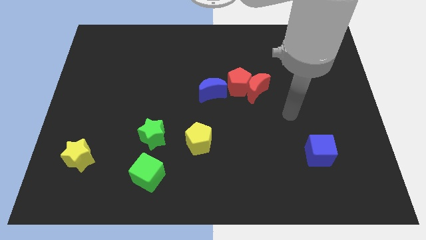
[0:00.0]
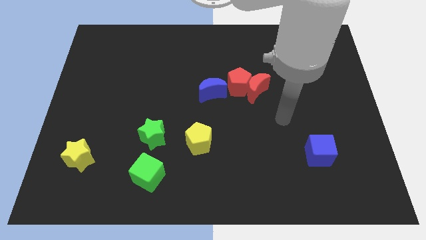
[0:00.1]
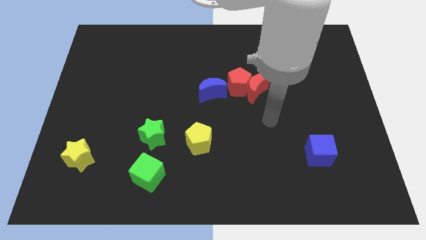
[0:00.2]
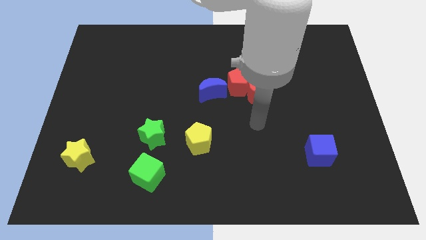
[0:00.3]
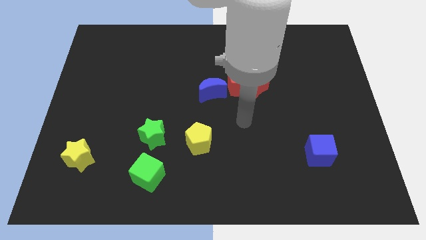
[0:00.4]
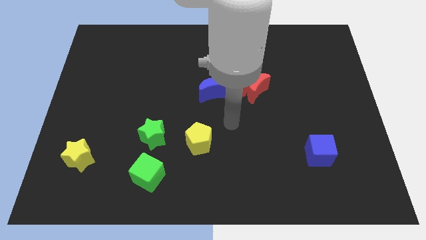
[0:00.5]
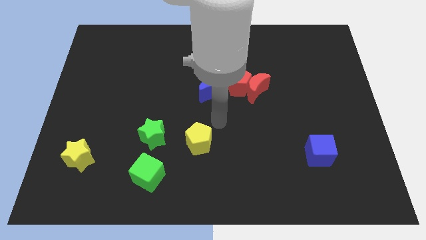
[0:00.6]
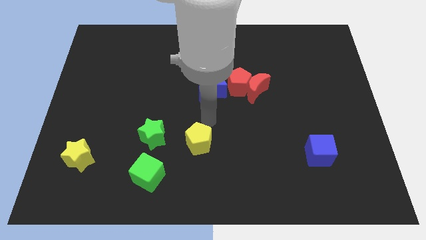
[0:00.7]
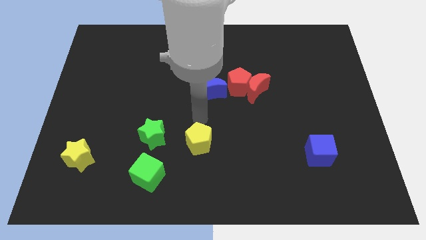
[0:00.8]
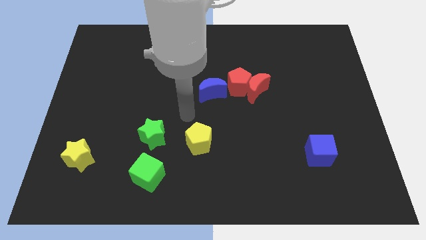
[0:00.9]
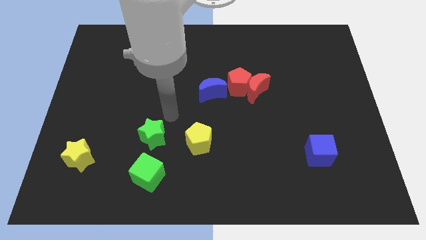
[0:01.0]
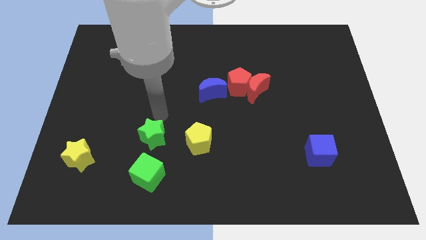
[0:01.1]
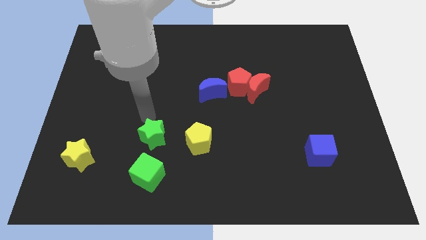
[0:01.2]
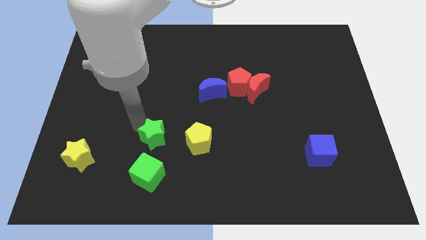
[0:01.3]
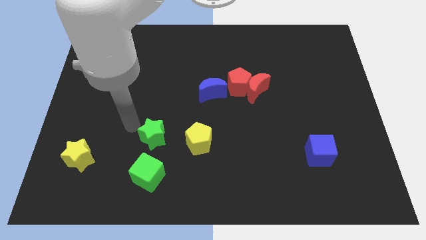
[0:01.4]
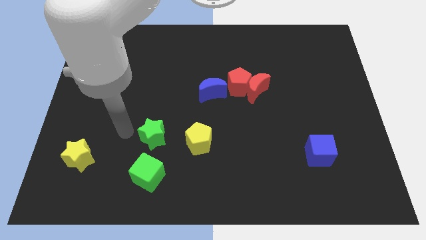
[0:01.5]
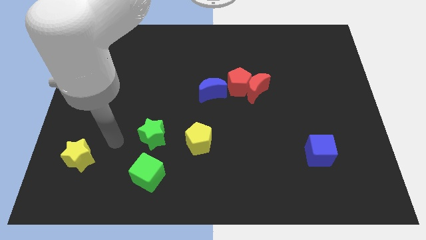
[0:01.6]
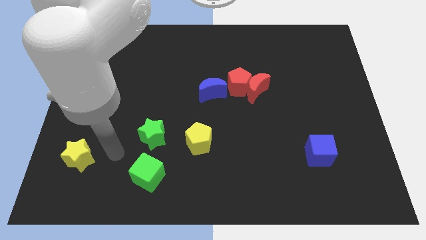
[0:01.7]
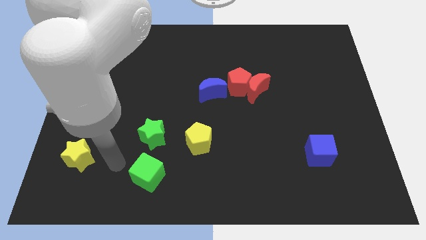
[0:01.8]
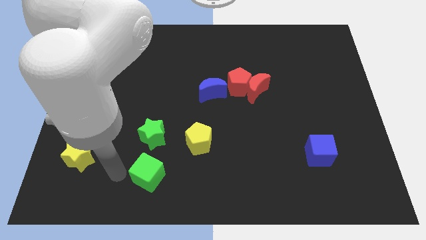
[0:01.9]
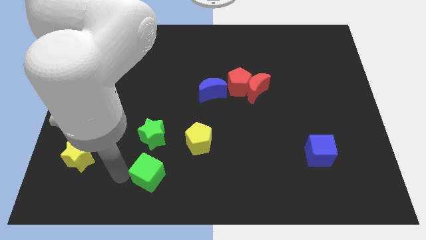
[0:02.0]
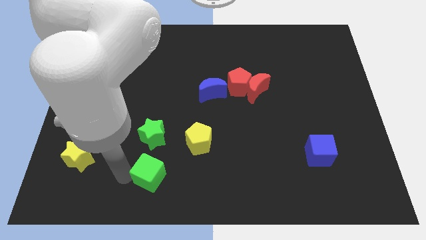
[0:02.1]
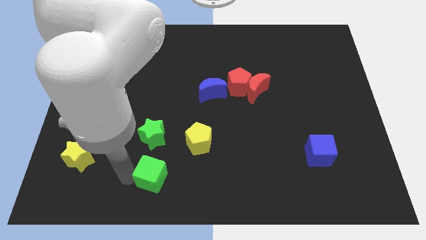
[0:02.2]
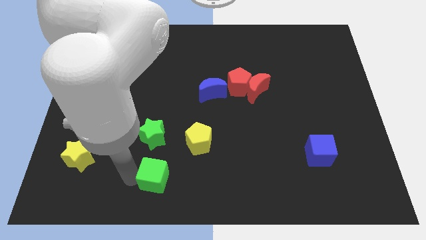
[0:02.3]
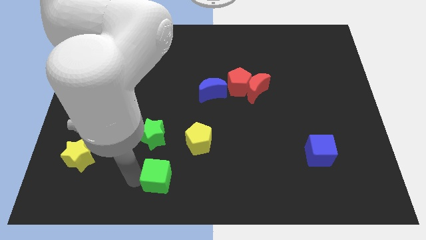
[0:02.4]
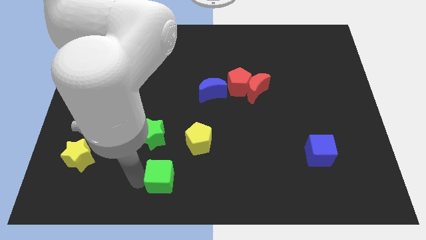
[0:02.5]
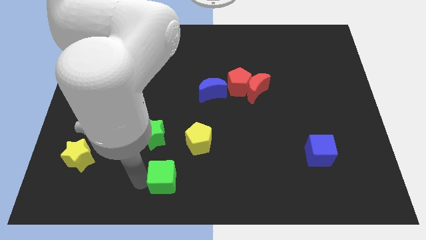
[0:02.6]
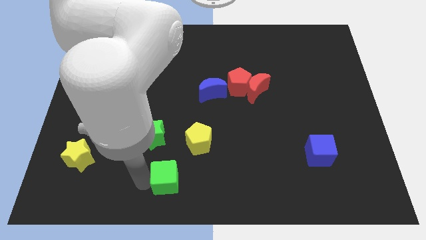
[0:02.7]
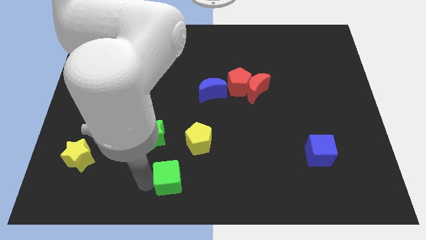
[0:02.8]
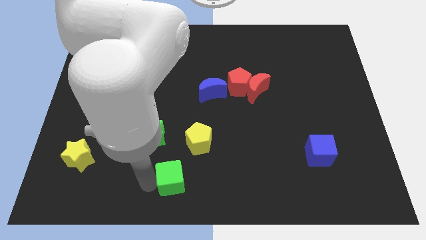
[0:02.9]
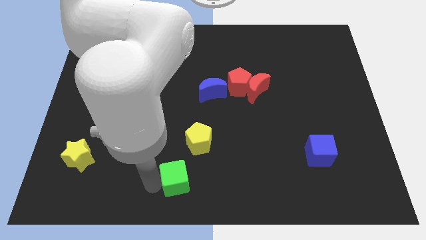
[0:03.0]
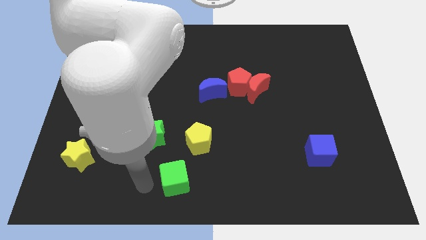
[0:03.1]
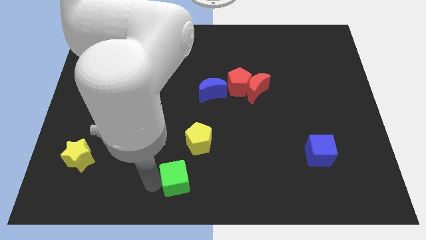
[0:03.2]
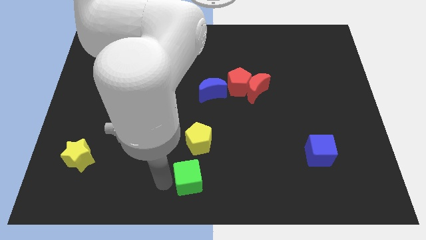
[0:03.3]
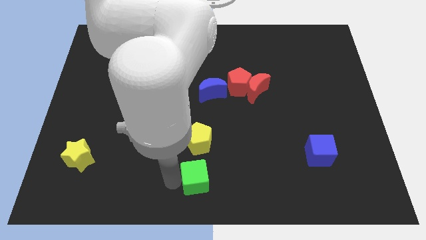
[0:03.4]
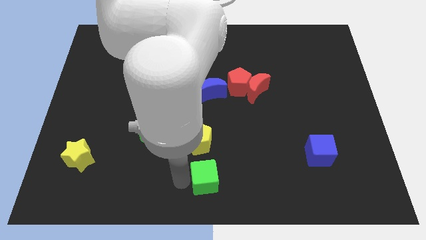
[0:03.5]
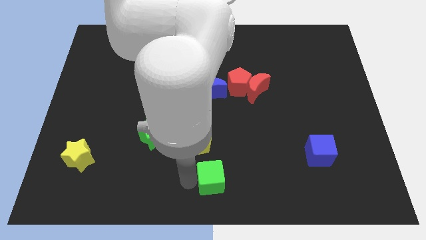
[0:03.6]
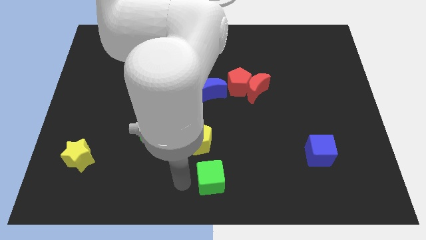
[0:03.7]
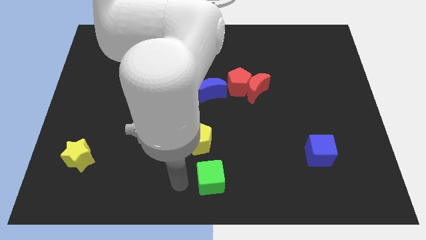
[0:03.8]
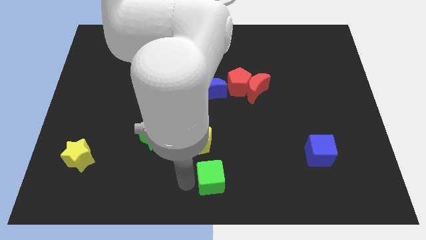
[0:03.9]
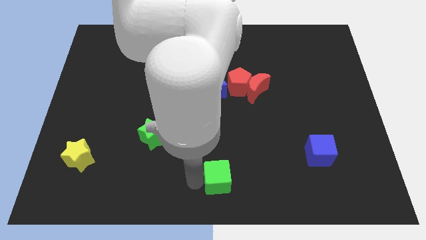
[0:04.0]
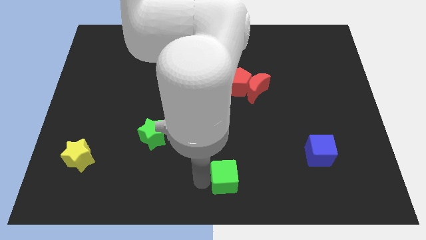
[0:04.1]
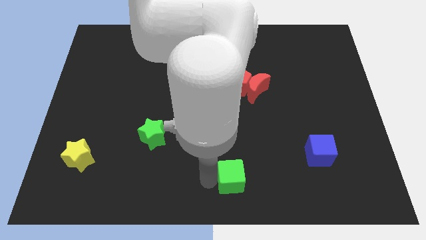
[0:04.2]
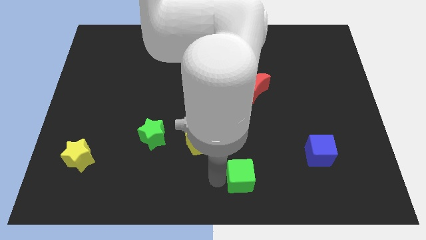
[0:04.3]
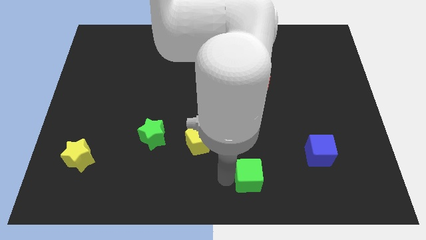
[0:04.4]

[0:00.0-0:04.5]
push the green cube right

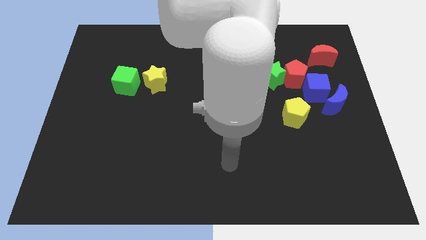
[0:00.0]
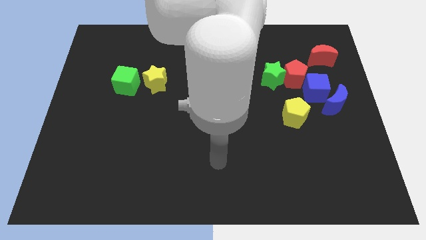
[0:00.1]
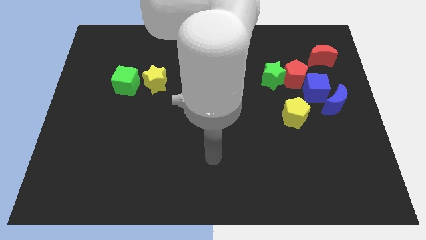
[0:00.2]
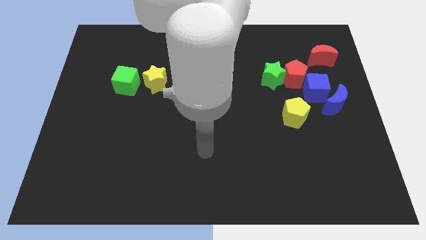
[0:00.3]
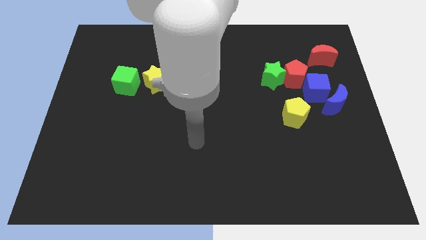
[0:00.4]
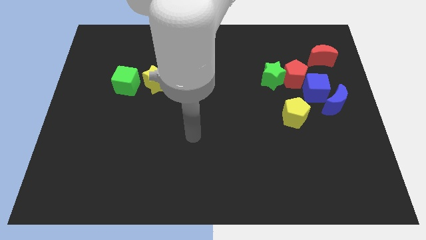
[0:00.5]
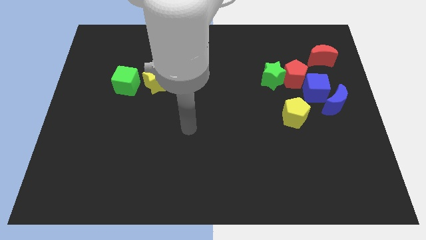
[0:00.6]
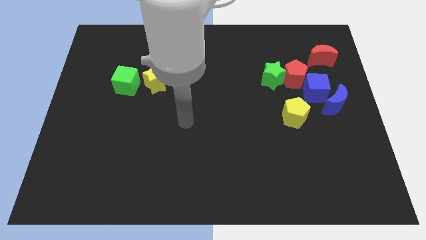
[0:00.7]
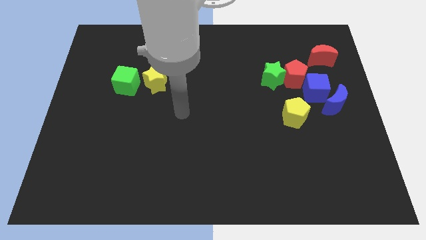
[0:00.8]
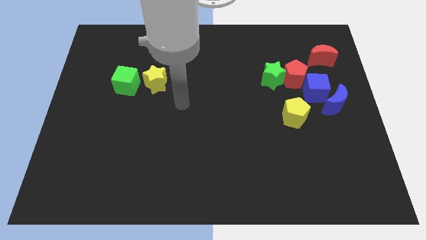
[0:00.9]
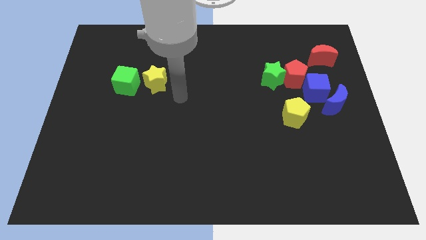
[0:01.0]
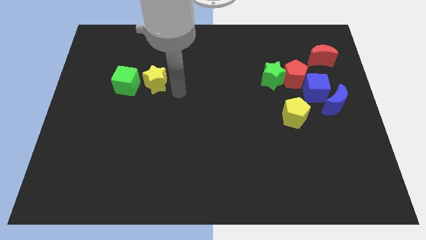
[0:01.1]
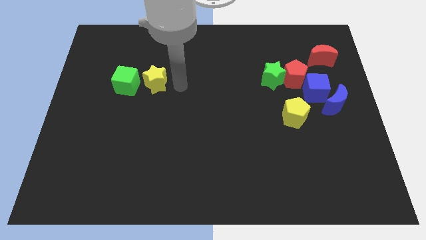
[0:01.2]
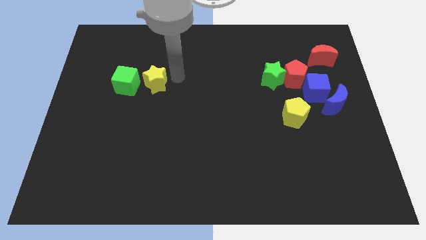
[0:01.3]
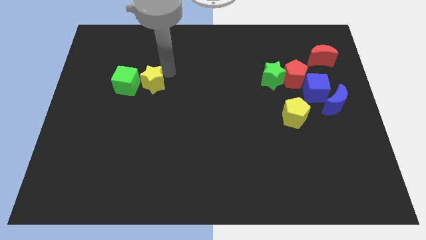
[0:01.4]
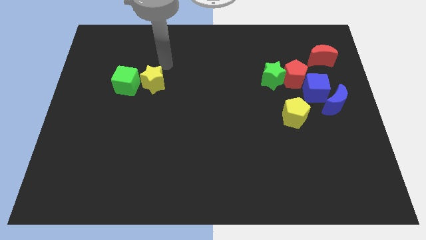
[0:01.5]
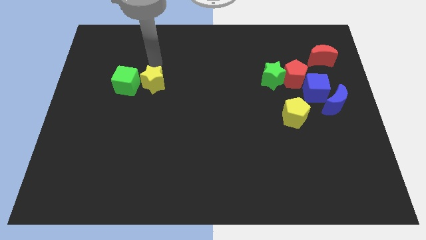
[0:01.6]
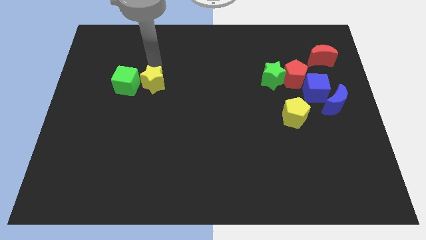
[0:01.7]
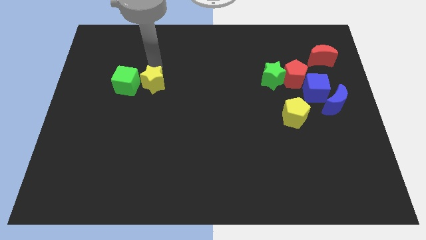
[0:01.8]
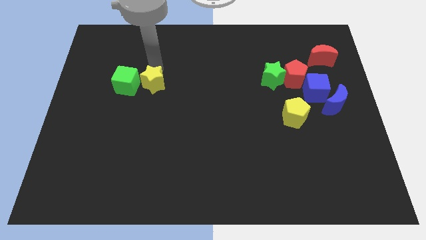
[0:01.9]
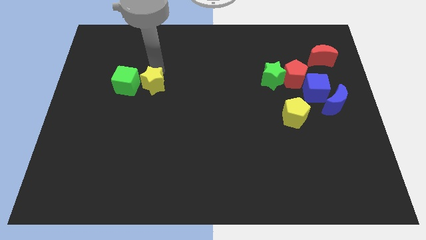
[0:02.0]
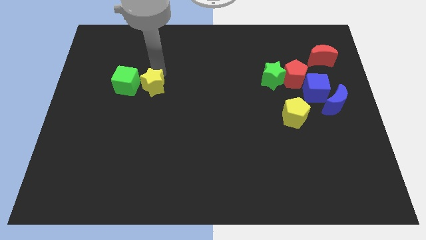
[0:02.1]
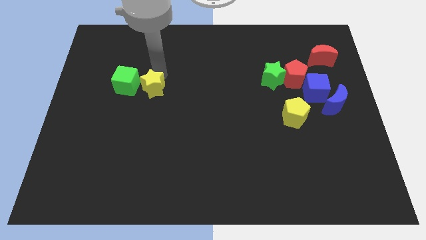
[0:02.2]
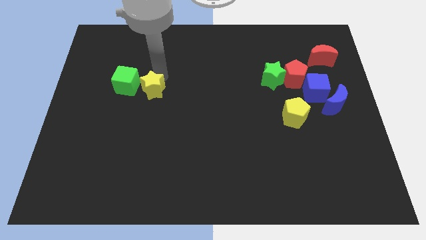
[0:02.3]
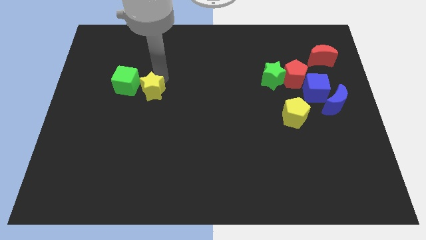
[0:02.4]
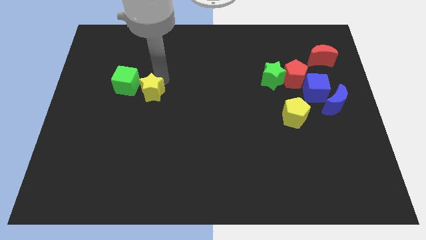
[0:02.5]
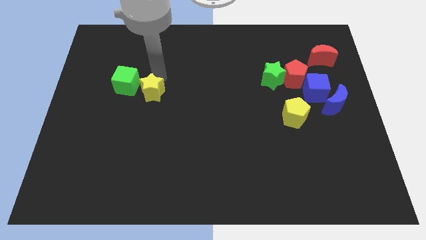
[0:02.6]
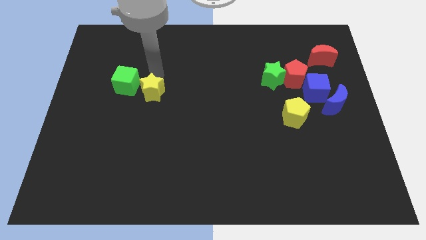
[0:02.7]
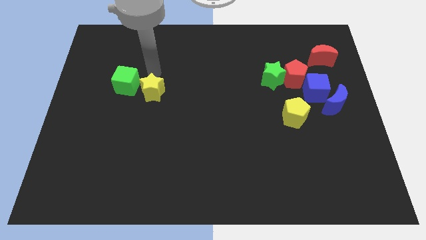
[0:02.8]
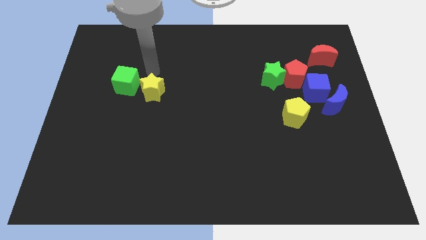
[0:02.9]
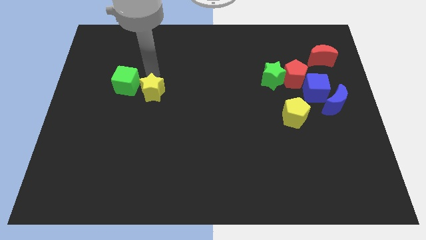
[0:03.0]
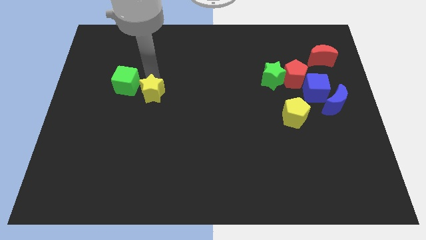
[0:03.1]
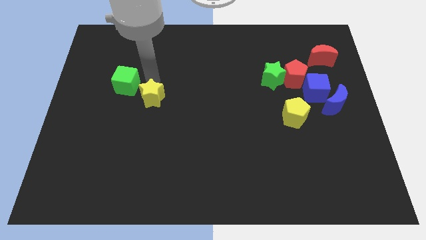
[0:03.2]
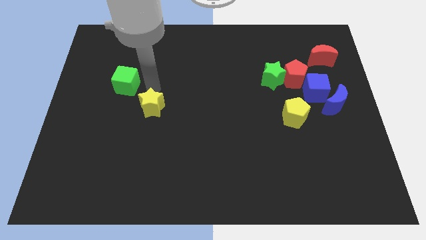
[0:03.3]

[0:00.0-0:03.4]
slightly slide the yellow star down
